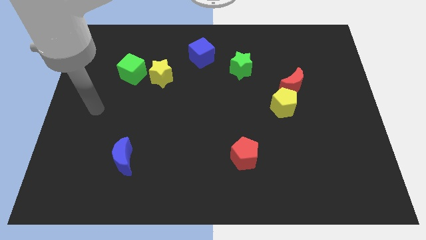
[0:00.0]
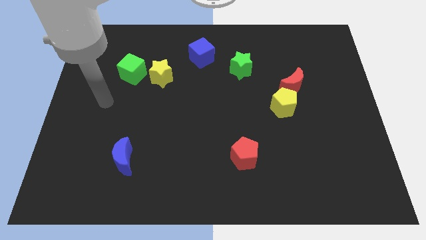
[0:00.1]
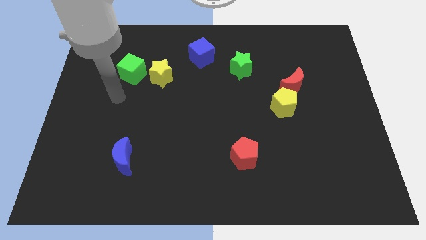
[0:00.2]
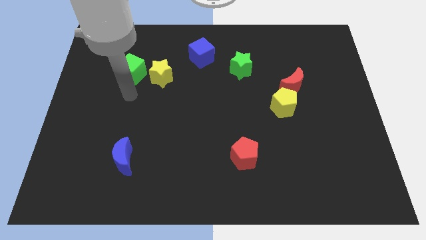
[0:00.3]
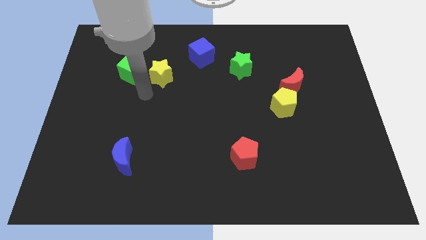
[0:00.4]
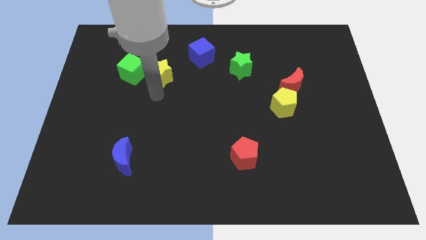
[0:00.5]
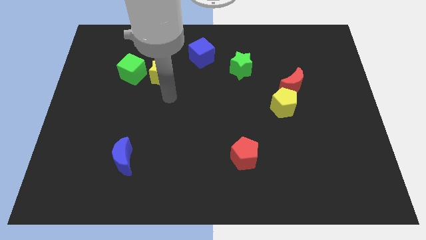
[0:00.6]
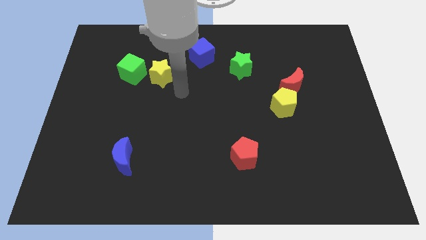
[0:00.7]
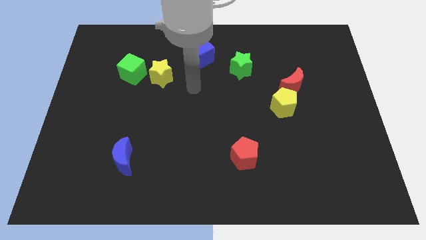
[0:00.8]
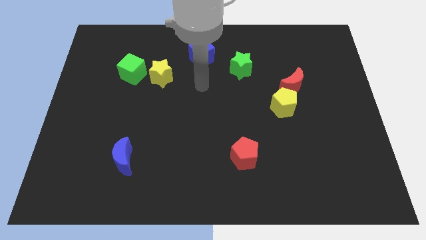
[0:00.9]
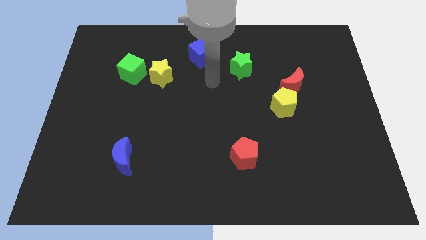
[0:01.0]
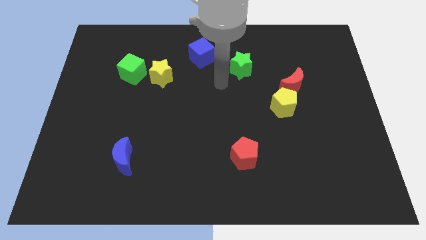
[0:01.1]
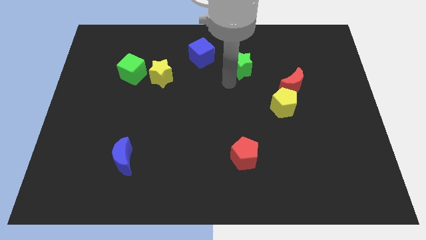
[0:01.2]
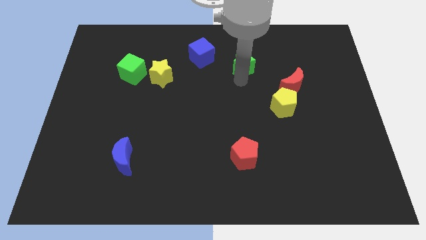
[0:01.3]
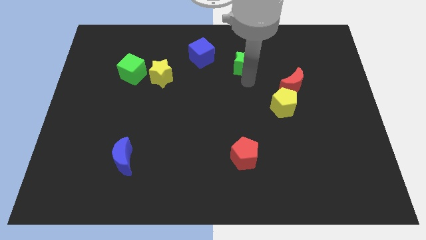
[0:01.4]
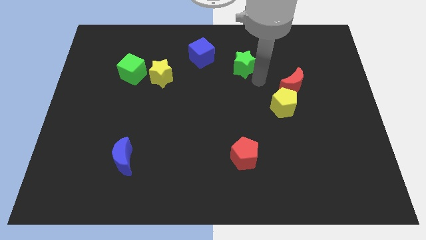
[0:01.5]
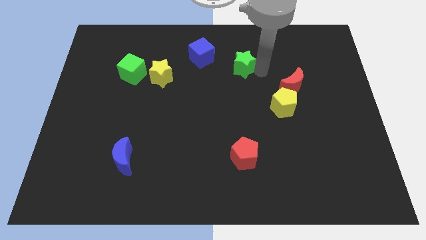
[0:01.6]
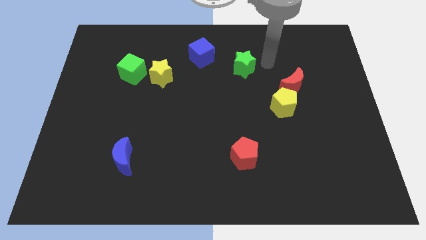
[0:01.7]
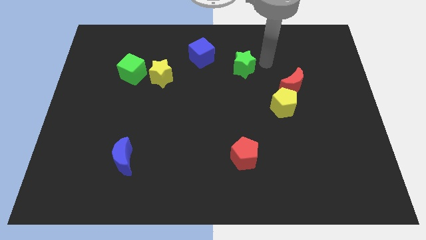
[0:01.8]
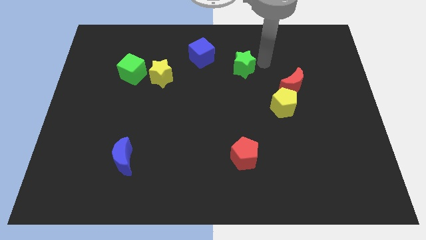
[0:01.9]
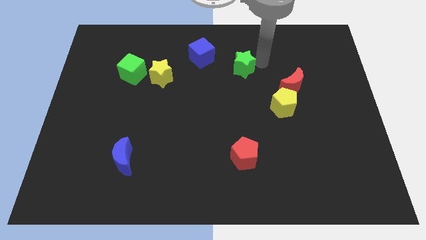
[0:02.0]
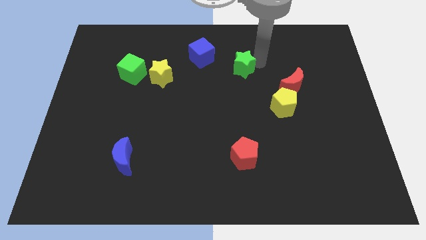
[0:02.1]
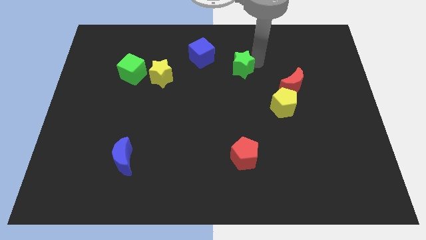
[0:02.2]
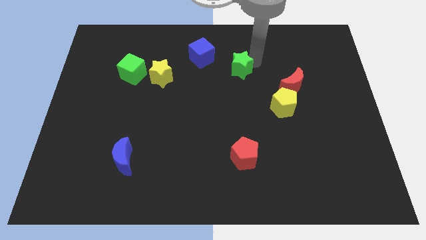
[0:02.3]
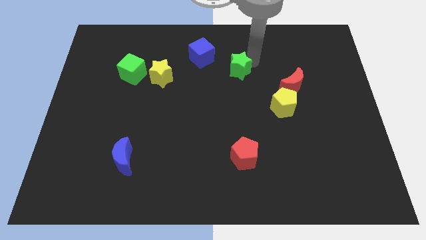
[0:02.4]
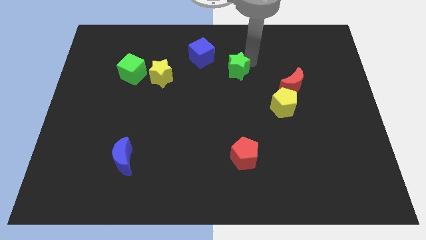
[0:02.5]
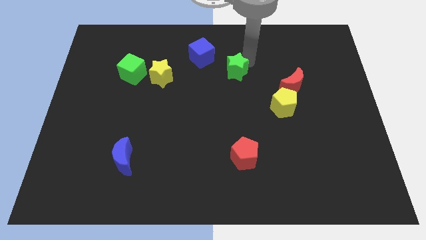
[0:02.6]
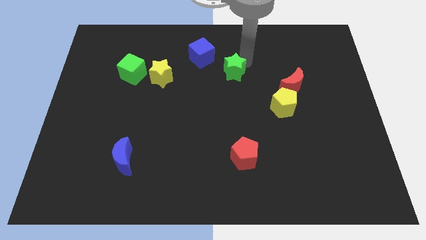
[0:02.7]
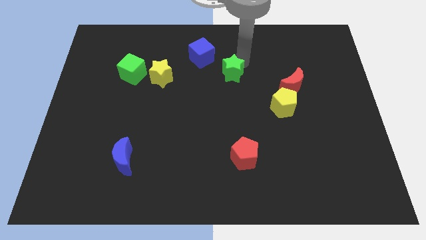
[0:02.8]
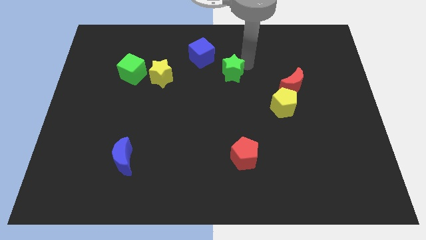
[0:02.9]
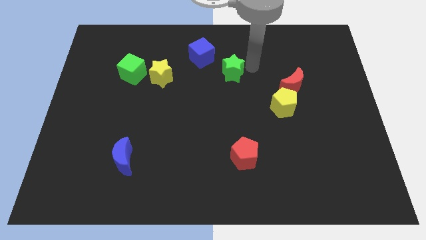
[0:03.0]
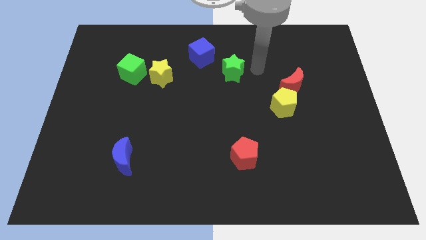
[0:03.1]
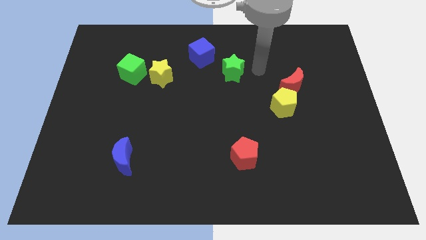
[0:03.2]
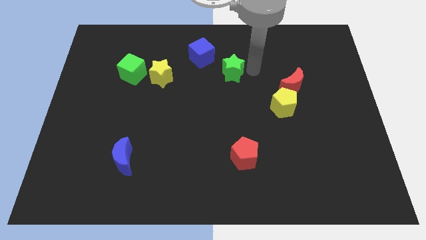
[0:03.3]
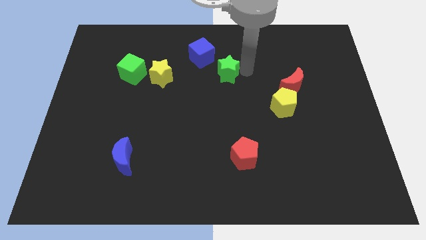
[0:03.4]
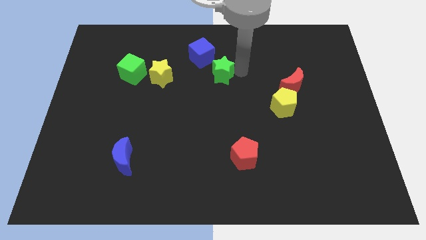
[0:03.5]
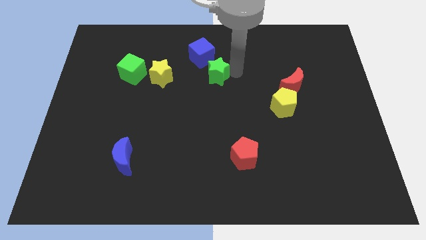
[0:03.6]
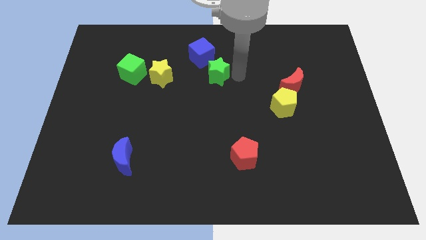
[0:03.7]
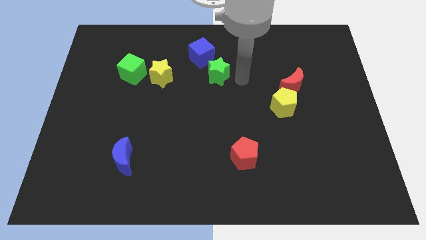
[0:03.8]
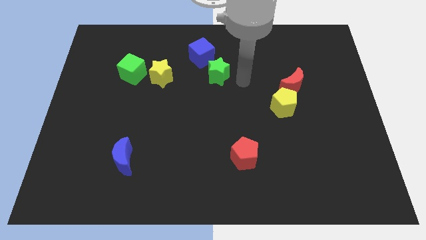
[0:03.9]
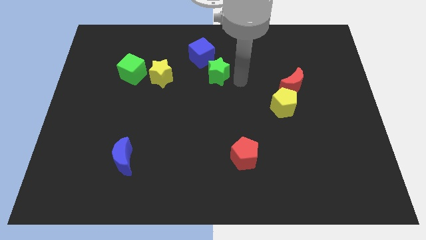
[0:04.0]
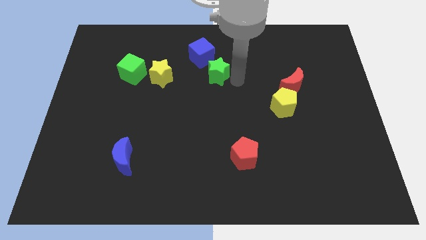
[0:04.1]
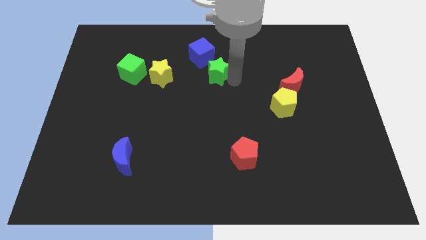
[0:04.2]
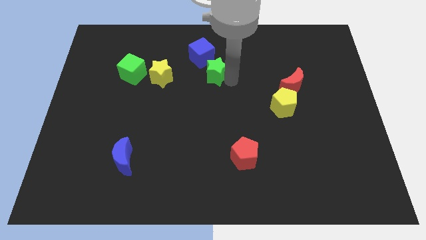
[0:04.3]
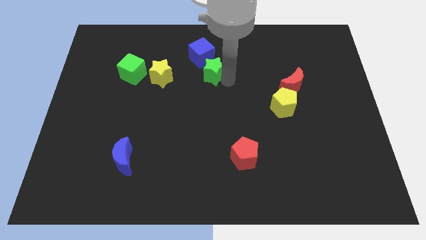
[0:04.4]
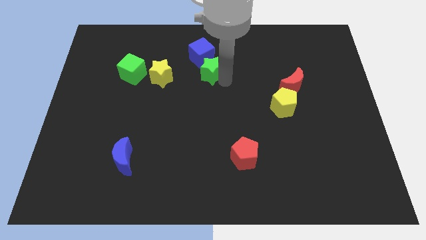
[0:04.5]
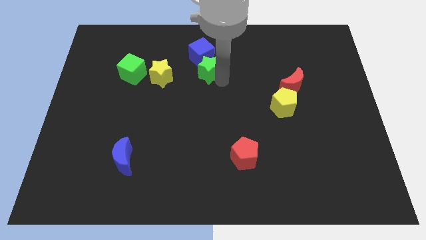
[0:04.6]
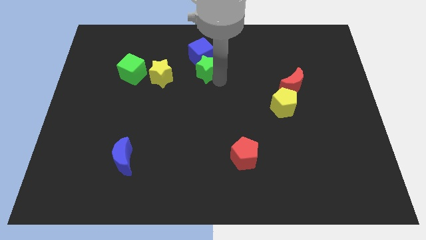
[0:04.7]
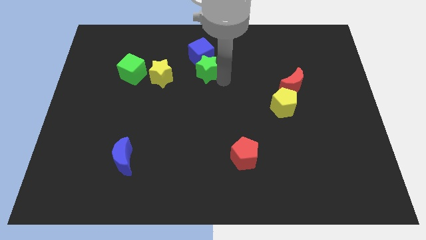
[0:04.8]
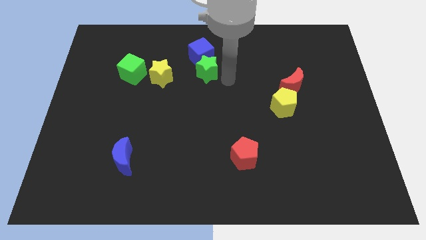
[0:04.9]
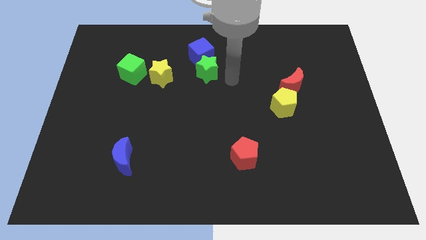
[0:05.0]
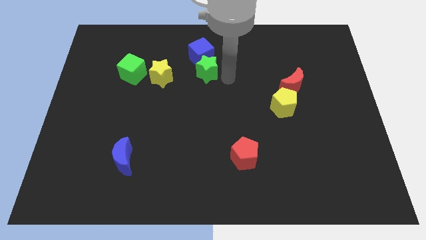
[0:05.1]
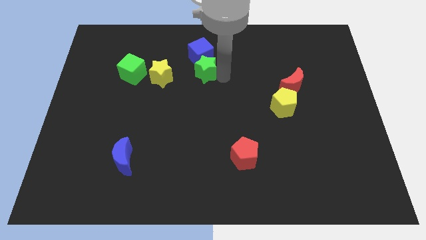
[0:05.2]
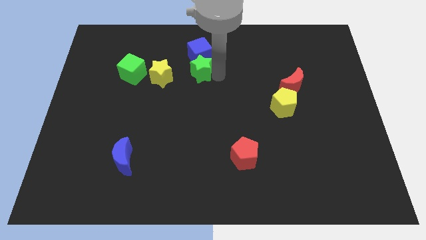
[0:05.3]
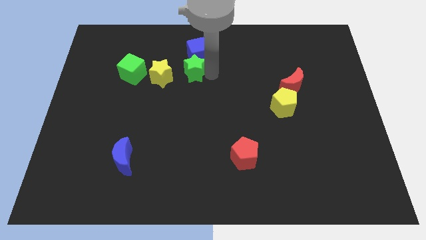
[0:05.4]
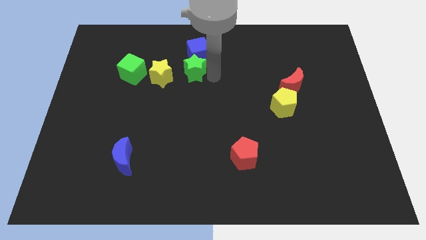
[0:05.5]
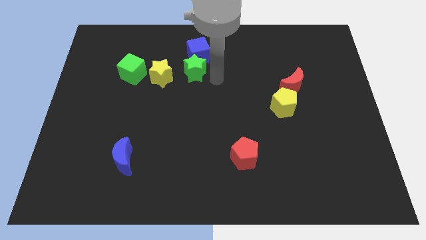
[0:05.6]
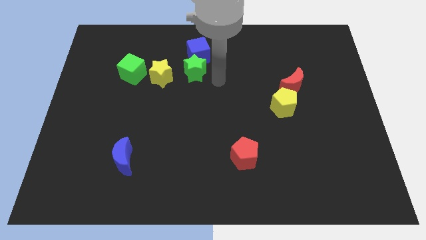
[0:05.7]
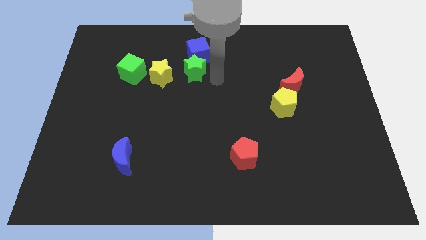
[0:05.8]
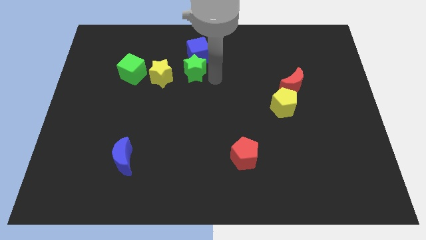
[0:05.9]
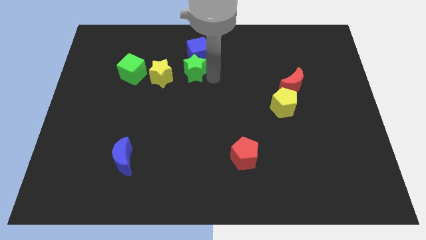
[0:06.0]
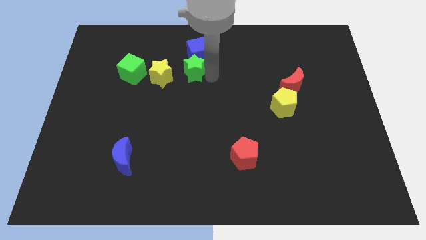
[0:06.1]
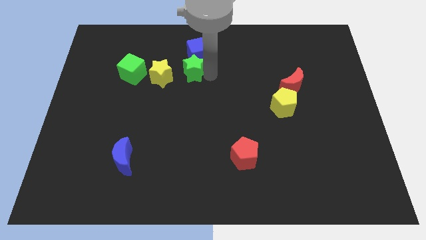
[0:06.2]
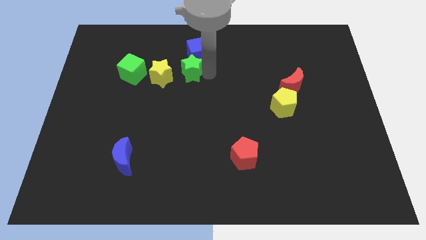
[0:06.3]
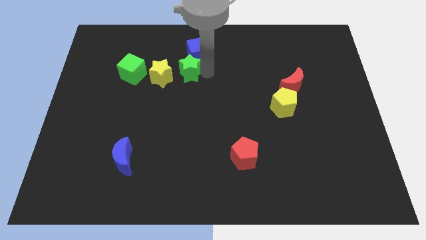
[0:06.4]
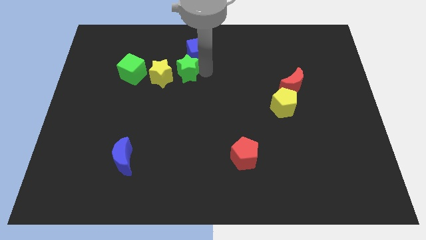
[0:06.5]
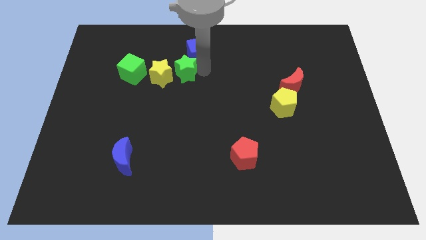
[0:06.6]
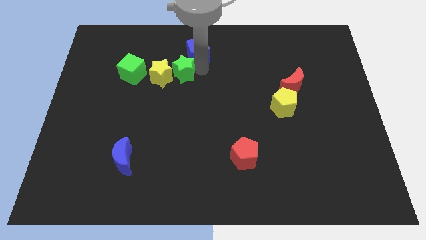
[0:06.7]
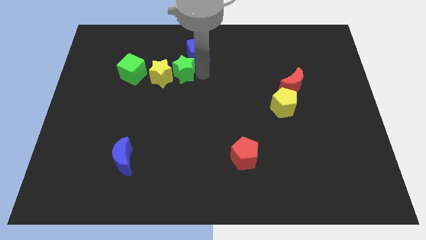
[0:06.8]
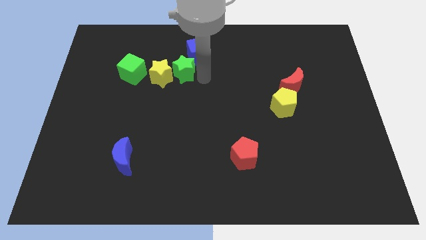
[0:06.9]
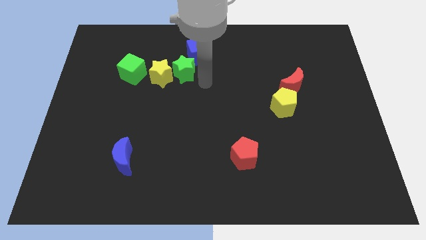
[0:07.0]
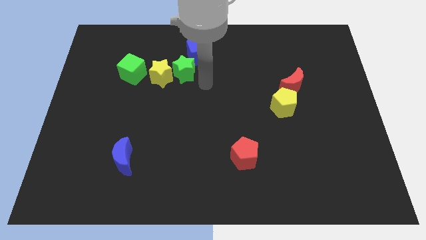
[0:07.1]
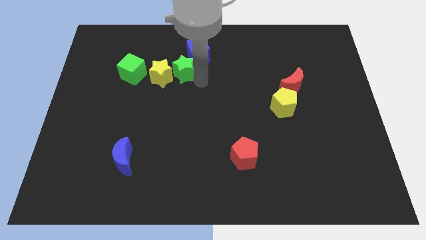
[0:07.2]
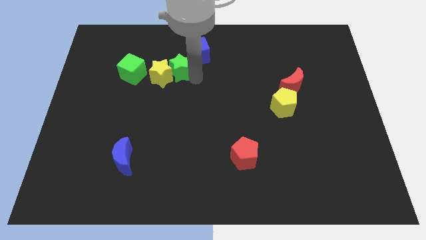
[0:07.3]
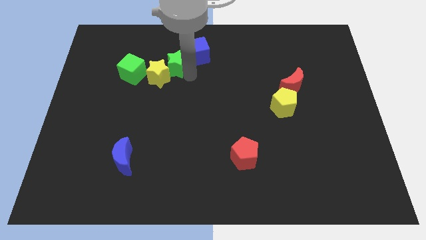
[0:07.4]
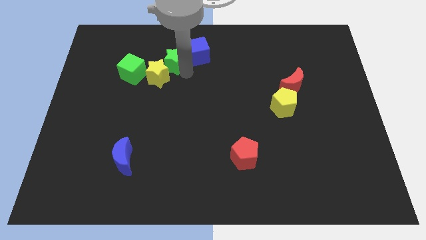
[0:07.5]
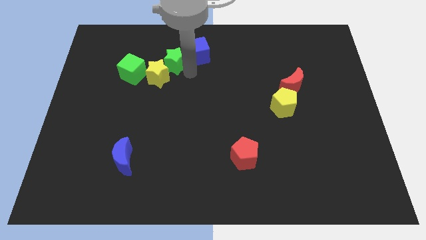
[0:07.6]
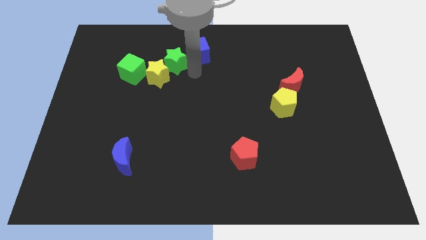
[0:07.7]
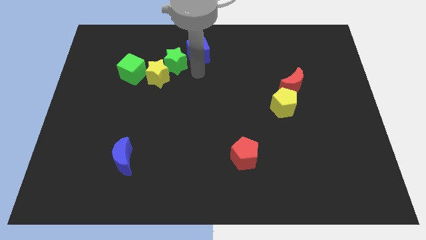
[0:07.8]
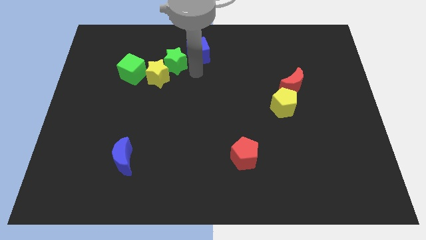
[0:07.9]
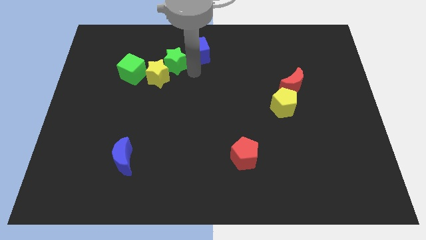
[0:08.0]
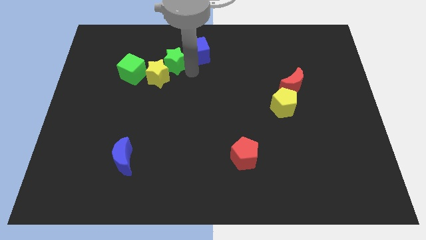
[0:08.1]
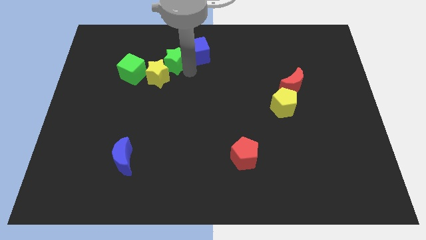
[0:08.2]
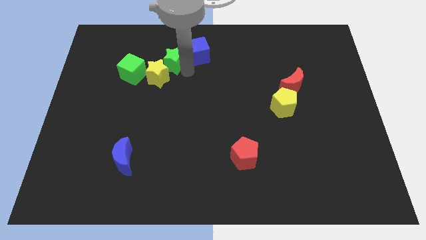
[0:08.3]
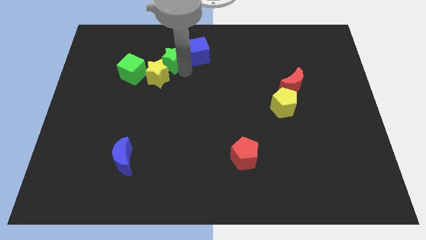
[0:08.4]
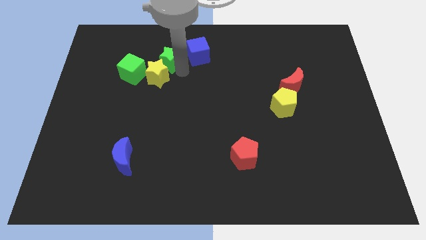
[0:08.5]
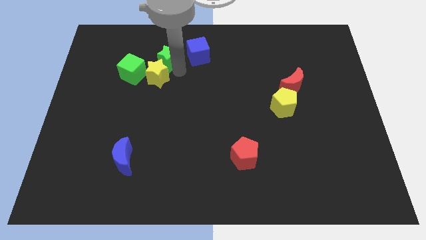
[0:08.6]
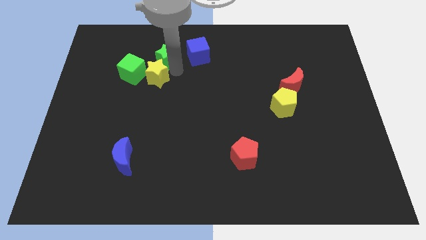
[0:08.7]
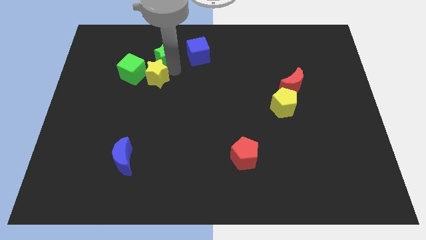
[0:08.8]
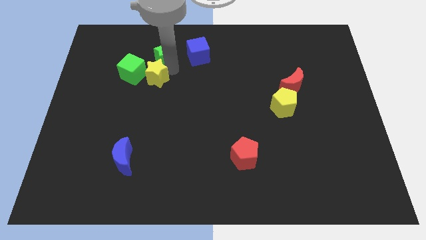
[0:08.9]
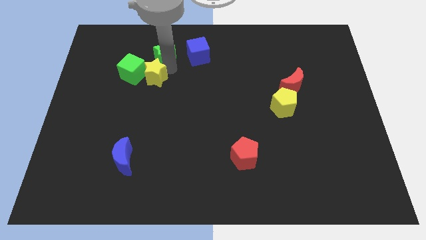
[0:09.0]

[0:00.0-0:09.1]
move the green star to the left
